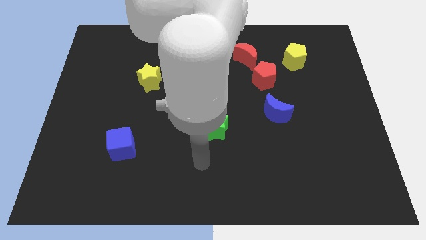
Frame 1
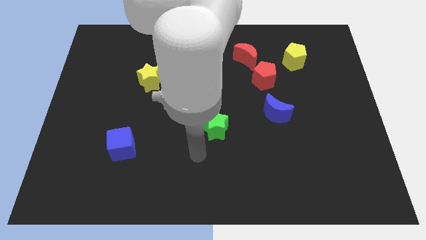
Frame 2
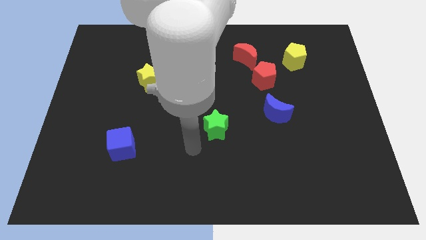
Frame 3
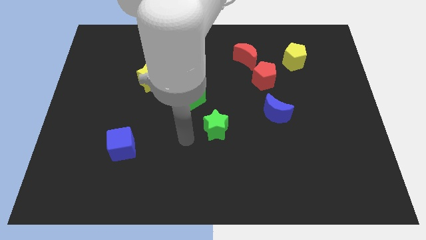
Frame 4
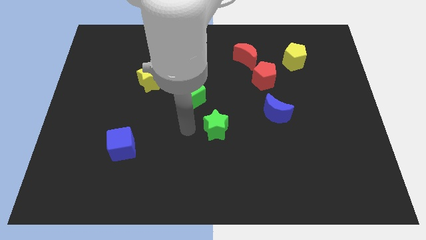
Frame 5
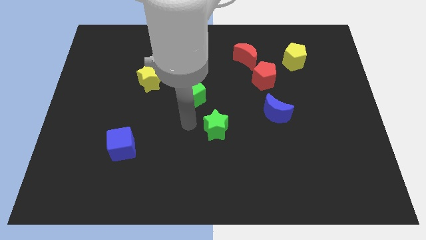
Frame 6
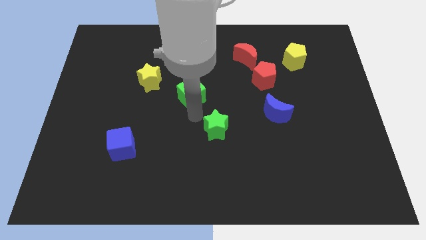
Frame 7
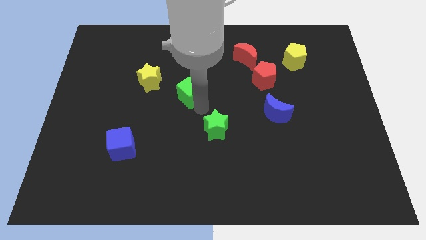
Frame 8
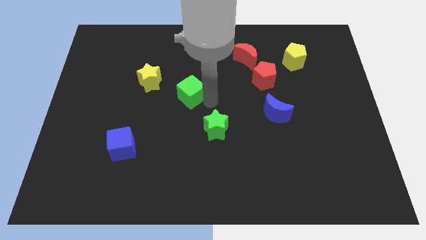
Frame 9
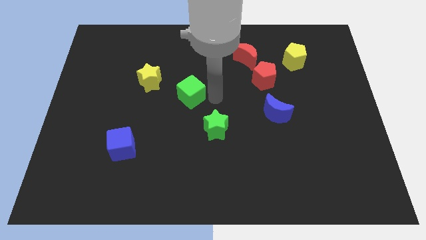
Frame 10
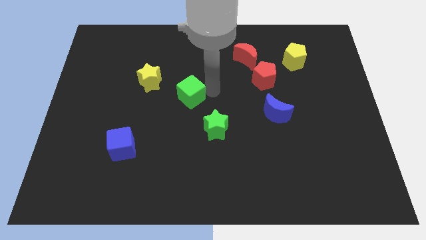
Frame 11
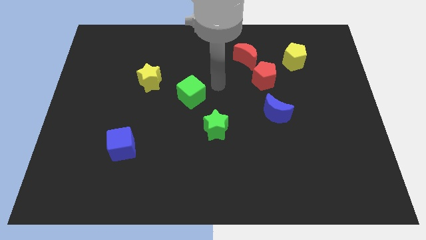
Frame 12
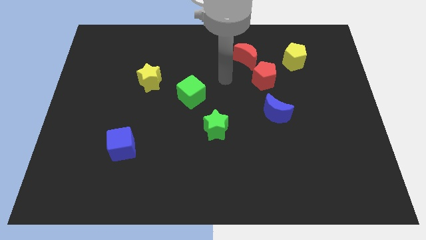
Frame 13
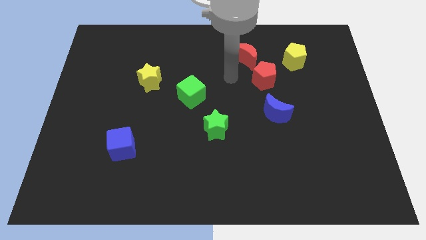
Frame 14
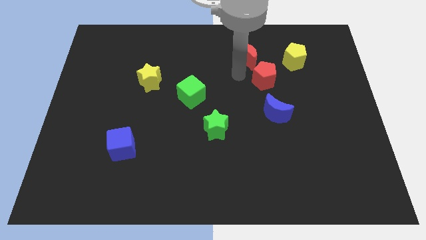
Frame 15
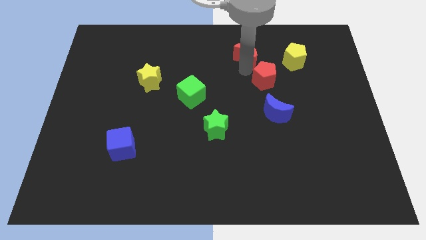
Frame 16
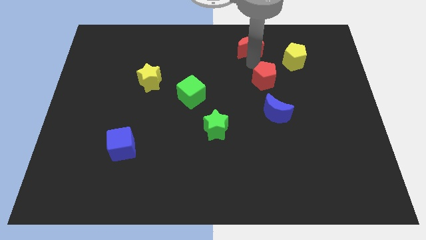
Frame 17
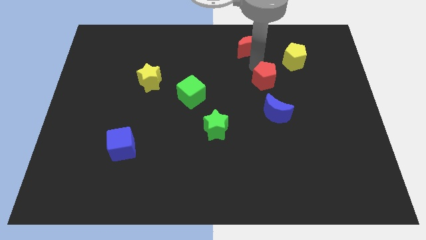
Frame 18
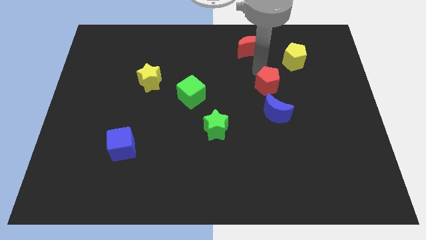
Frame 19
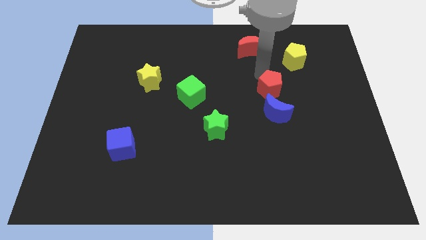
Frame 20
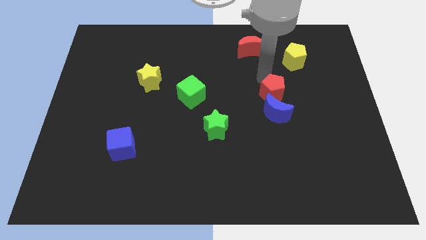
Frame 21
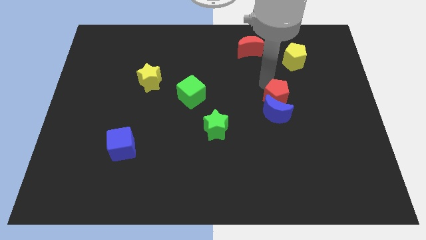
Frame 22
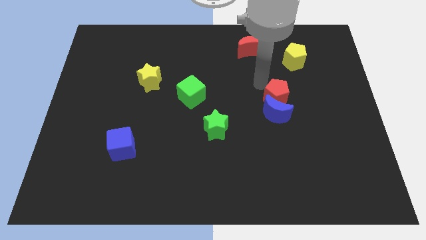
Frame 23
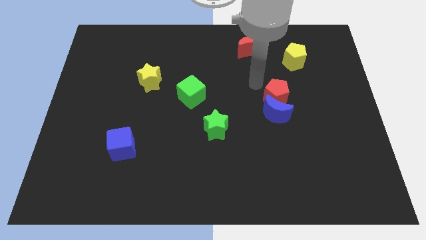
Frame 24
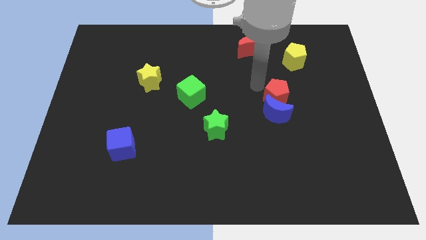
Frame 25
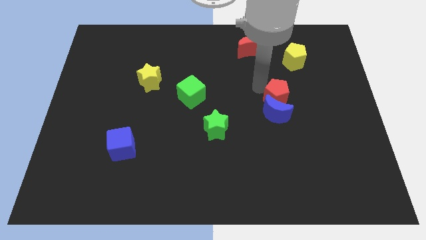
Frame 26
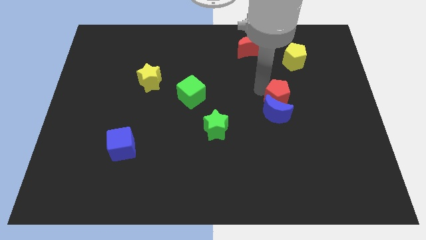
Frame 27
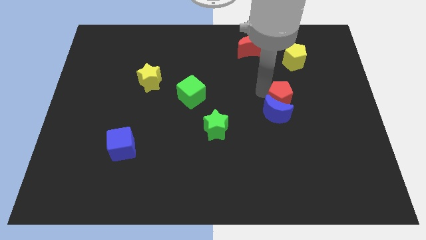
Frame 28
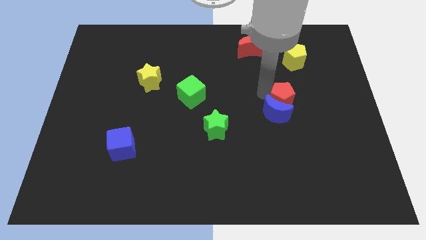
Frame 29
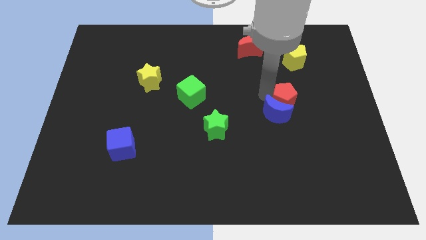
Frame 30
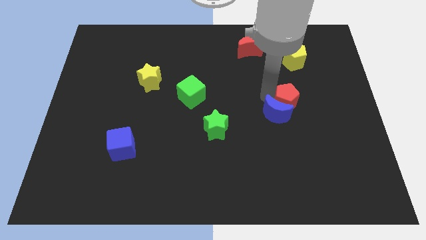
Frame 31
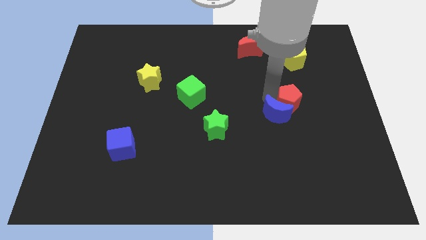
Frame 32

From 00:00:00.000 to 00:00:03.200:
move the red pentagon a little bit downwards

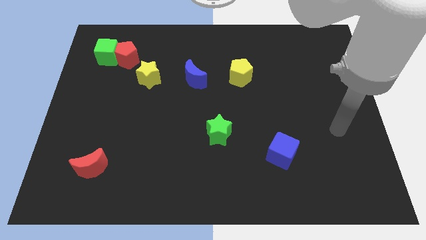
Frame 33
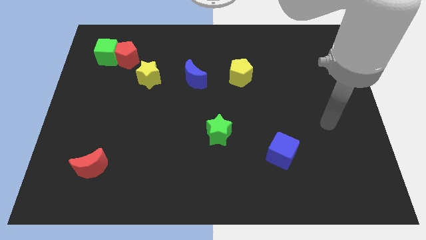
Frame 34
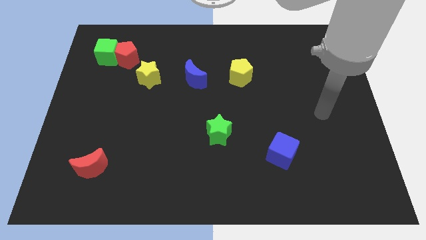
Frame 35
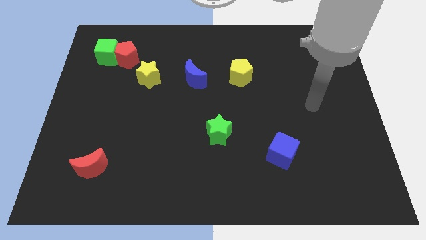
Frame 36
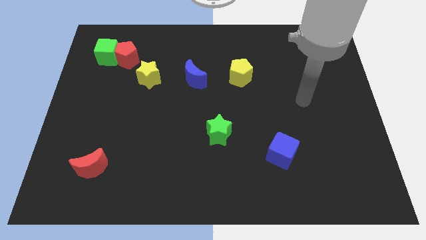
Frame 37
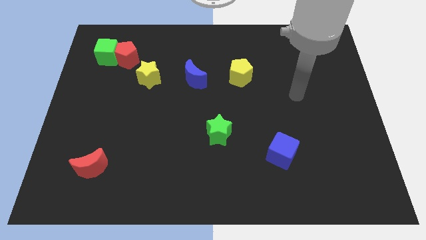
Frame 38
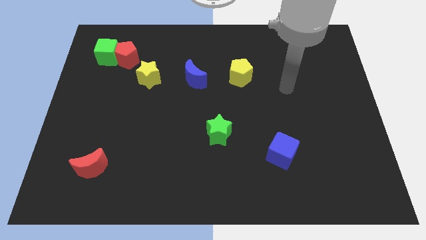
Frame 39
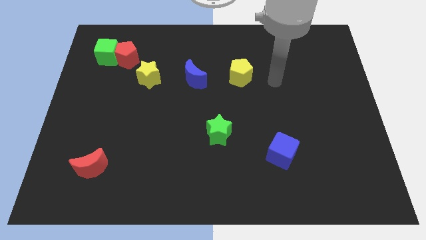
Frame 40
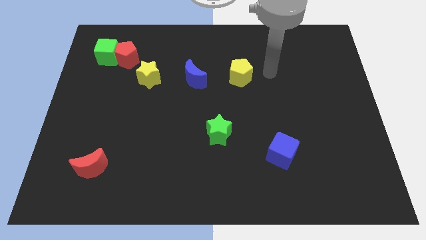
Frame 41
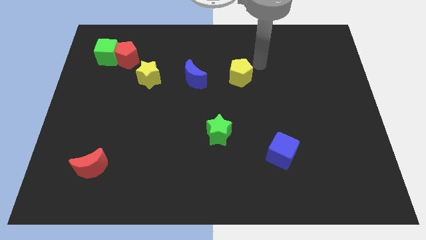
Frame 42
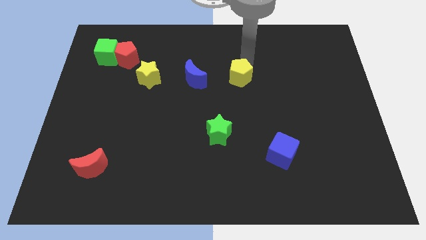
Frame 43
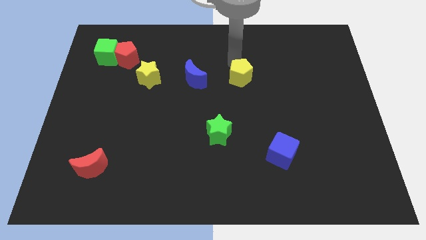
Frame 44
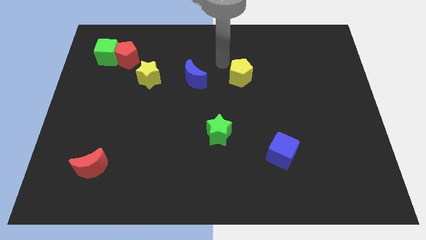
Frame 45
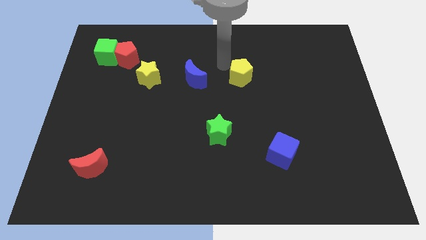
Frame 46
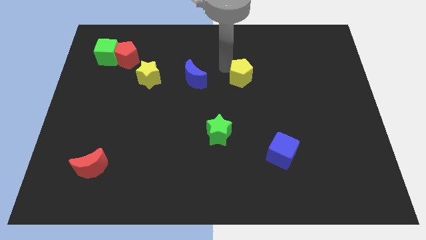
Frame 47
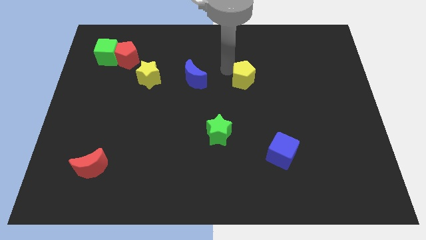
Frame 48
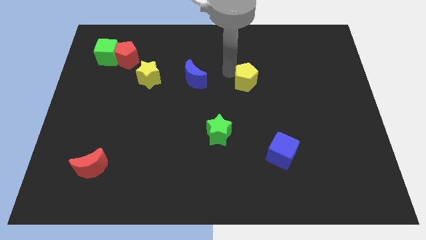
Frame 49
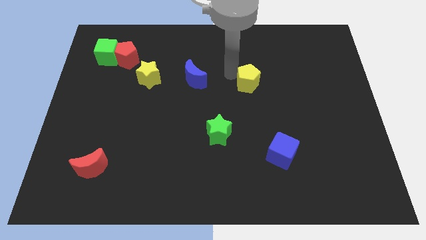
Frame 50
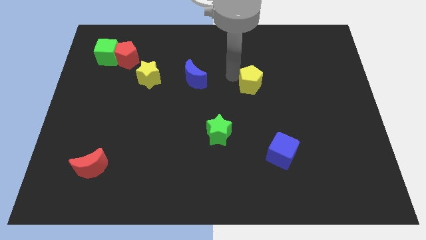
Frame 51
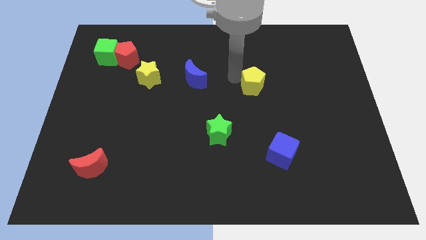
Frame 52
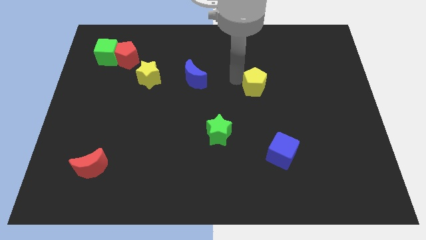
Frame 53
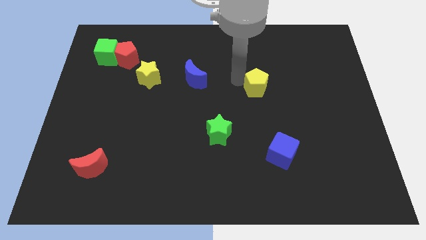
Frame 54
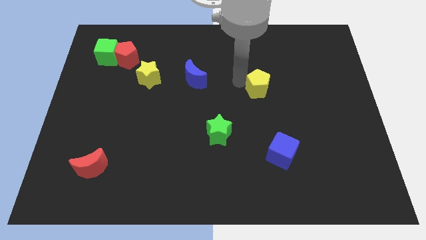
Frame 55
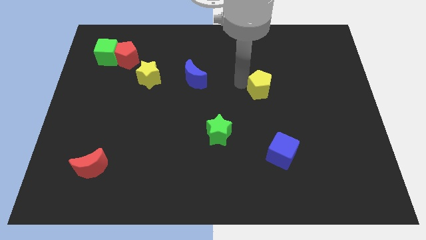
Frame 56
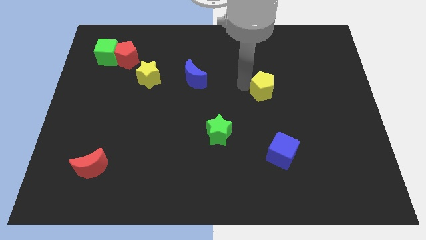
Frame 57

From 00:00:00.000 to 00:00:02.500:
slide the yellow pentagon a little bit down and to the right

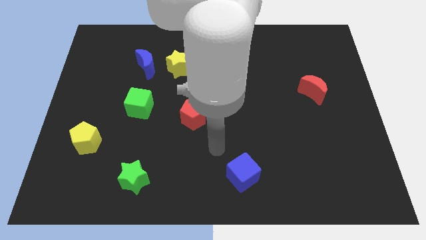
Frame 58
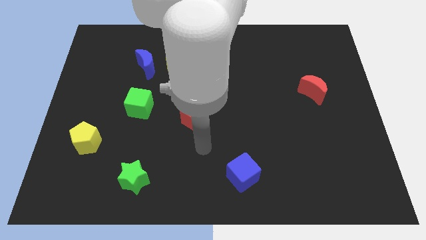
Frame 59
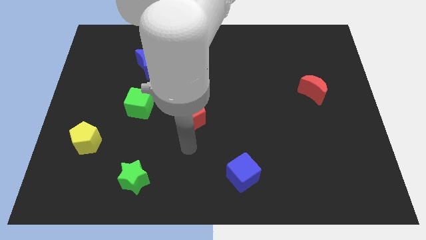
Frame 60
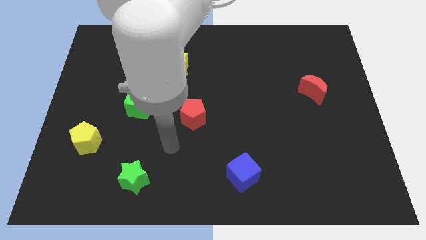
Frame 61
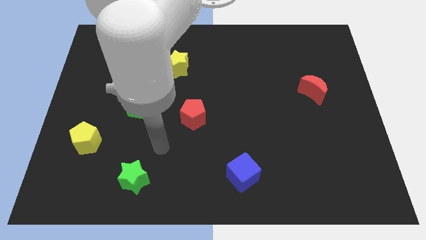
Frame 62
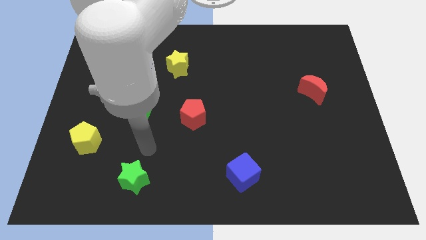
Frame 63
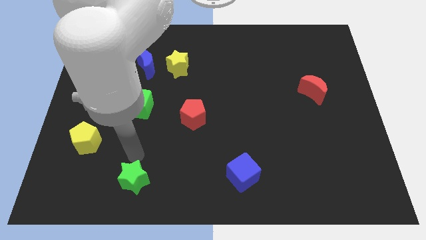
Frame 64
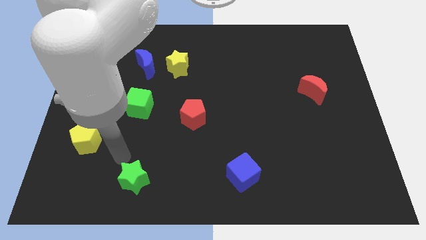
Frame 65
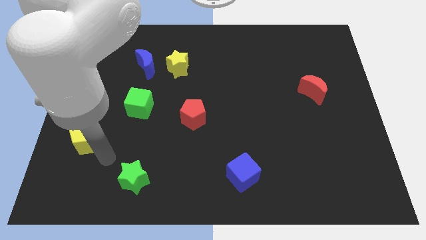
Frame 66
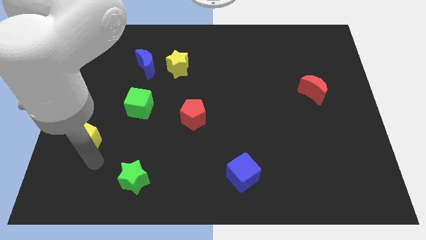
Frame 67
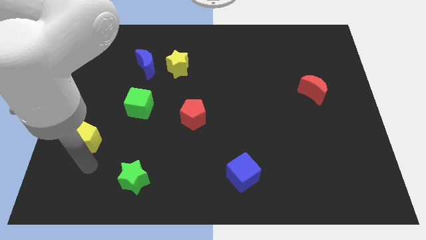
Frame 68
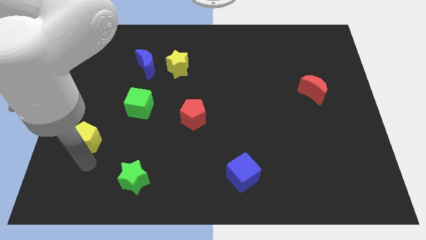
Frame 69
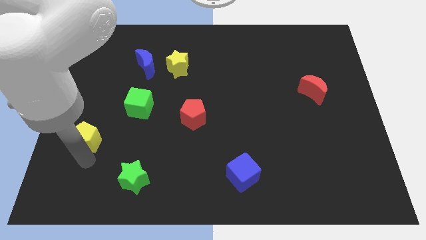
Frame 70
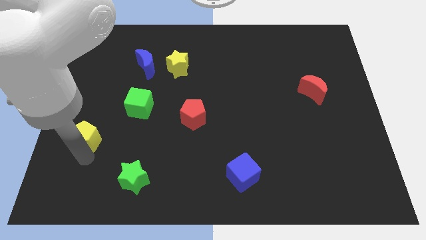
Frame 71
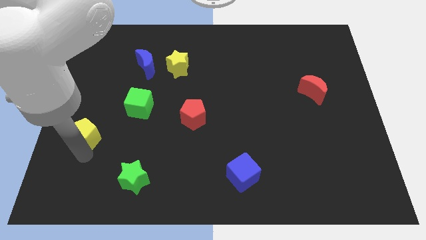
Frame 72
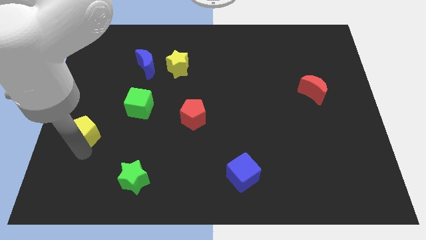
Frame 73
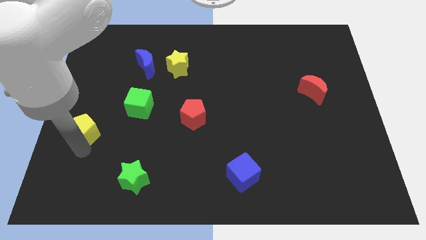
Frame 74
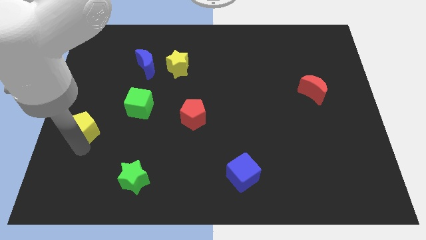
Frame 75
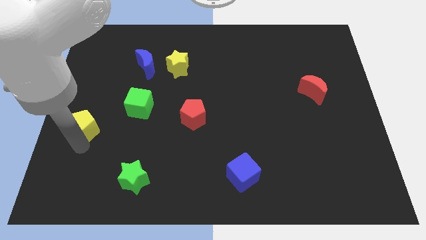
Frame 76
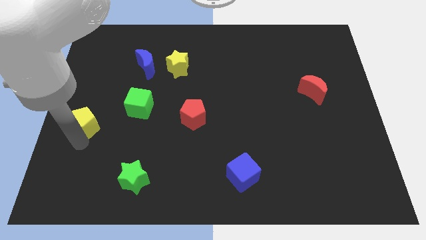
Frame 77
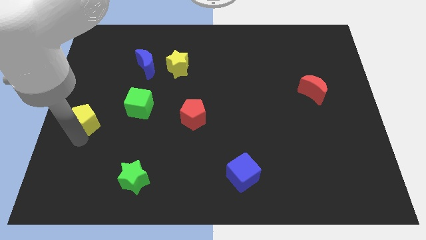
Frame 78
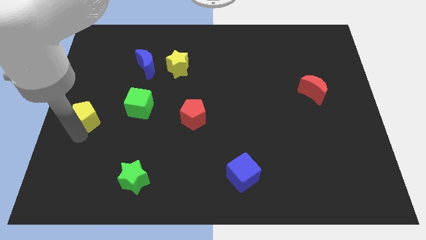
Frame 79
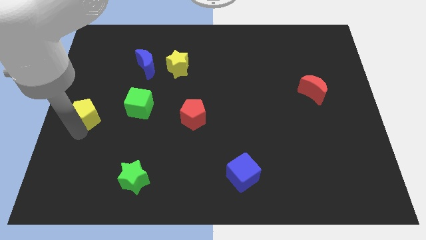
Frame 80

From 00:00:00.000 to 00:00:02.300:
slightly move the yellow pentagon upwards
